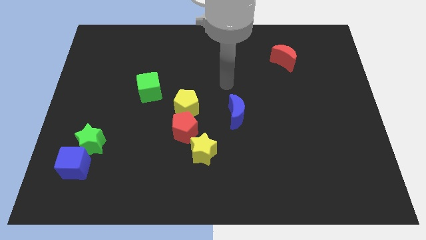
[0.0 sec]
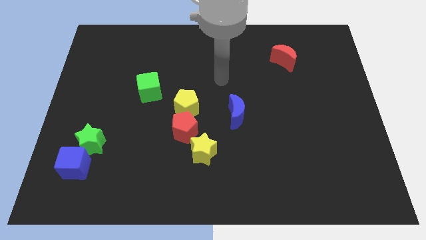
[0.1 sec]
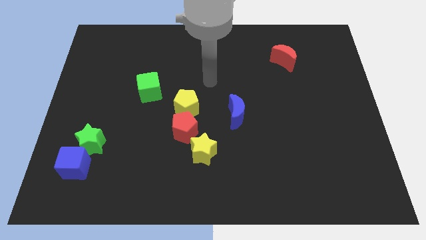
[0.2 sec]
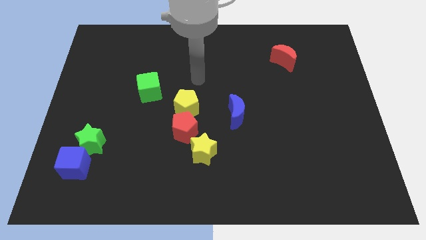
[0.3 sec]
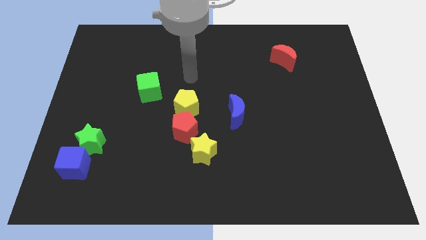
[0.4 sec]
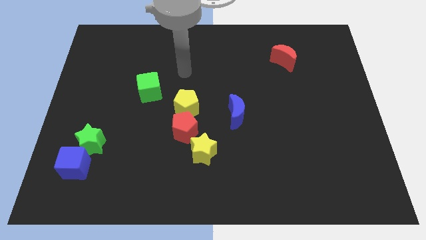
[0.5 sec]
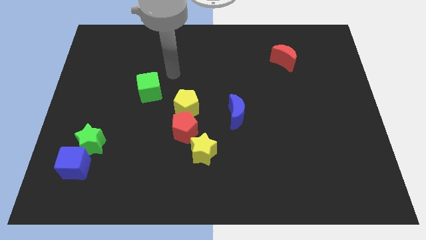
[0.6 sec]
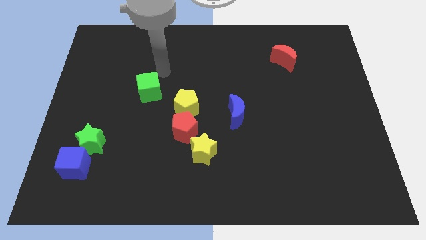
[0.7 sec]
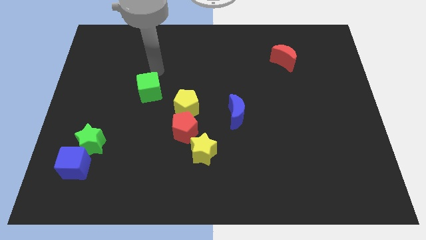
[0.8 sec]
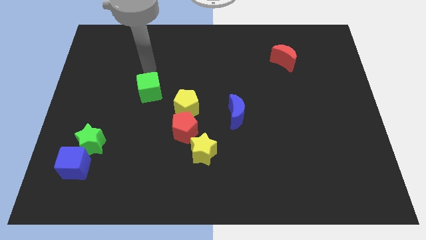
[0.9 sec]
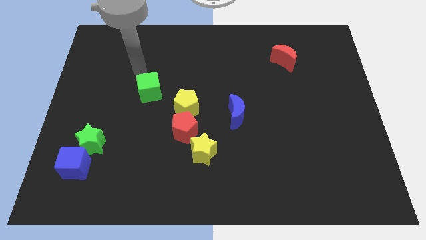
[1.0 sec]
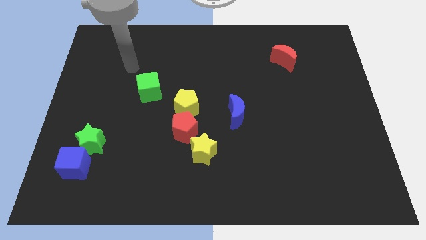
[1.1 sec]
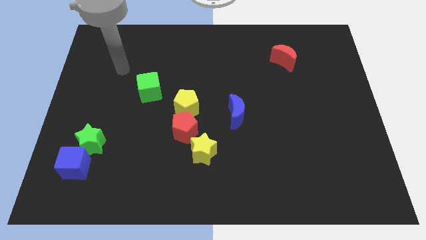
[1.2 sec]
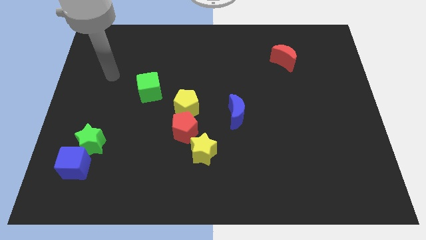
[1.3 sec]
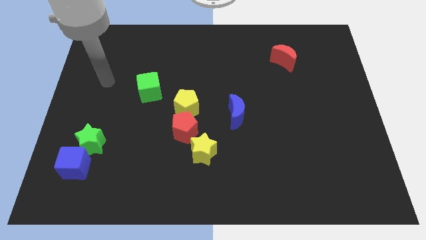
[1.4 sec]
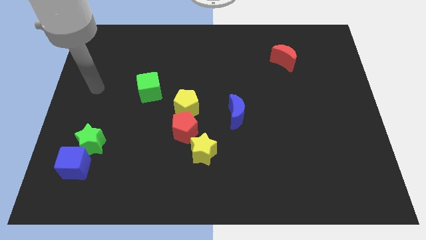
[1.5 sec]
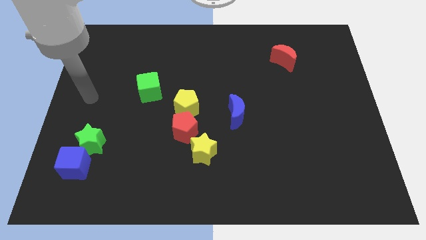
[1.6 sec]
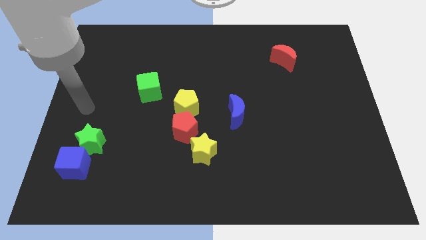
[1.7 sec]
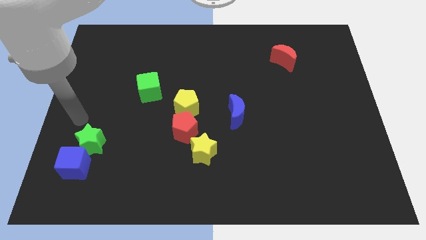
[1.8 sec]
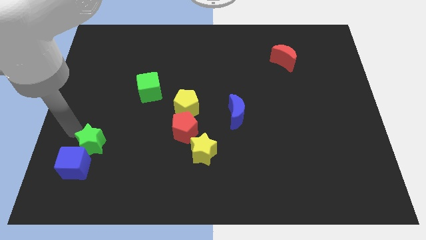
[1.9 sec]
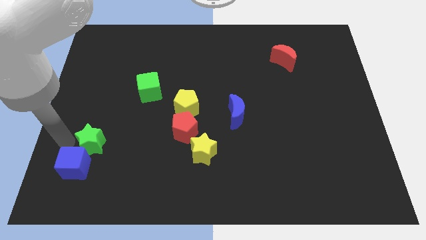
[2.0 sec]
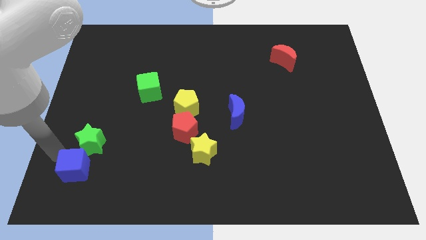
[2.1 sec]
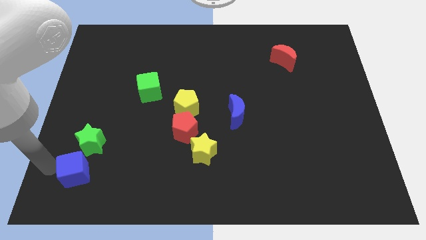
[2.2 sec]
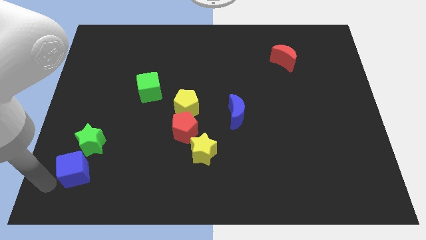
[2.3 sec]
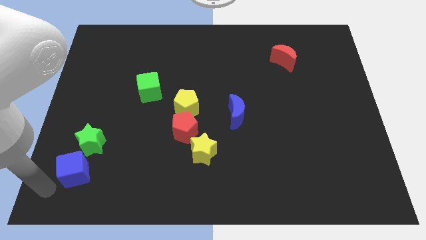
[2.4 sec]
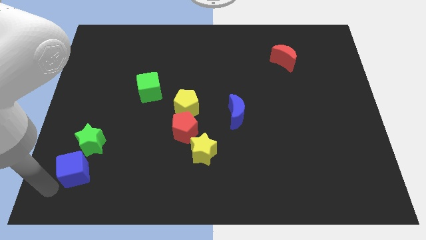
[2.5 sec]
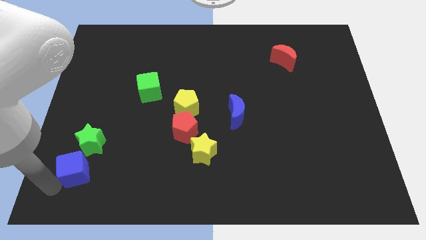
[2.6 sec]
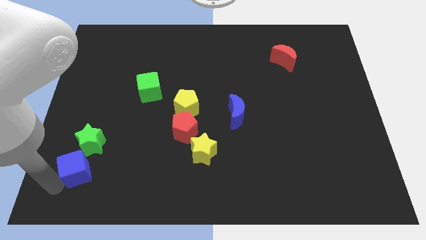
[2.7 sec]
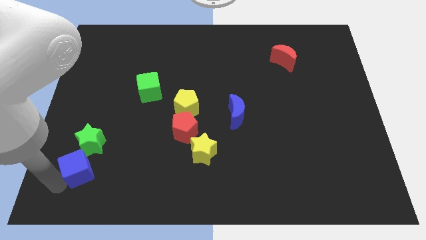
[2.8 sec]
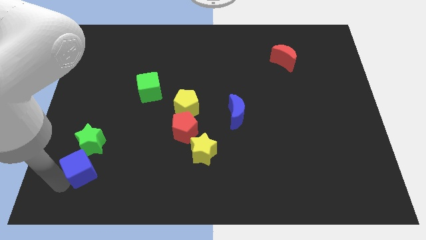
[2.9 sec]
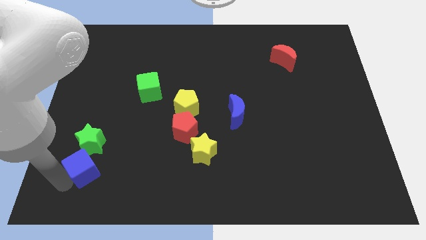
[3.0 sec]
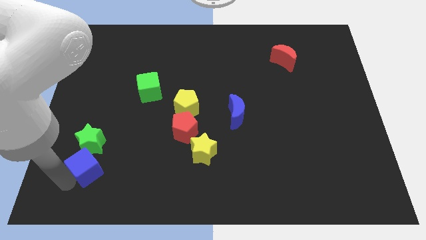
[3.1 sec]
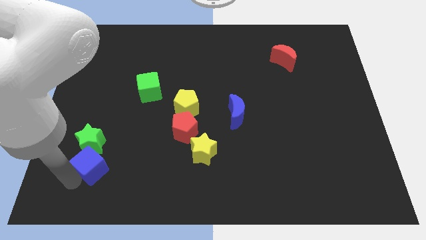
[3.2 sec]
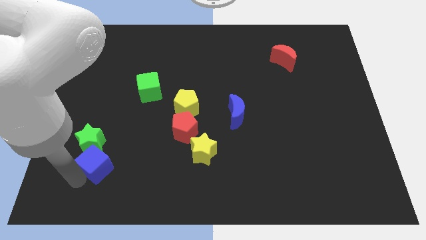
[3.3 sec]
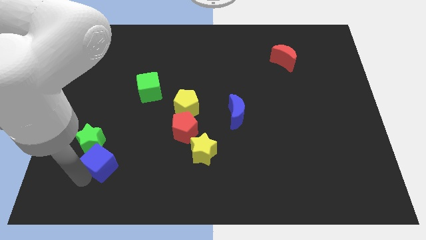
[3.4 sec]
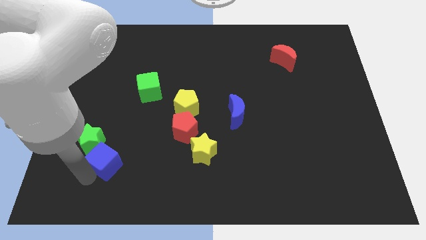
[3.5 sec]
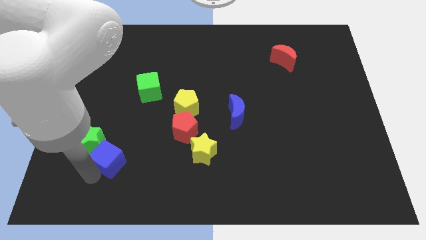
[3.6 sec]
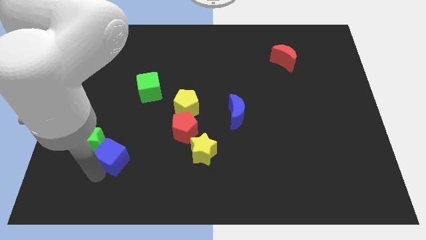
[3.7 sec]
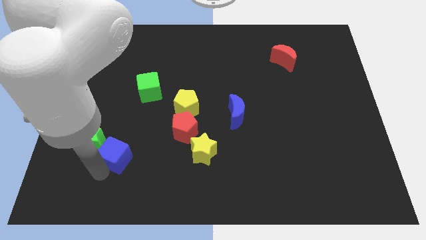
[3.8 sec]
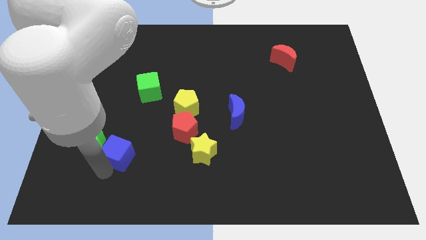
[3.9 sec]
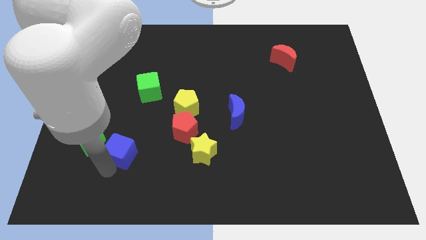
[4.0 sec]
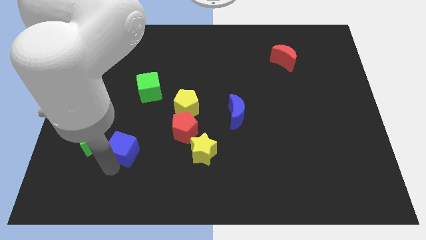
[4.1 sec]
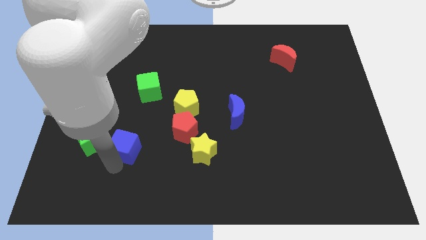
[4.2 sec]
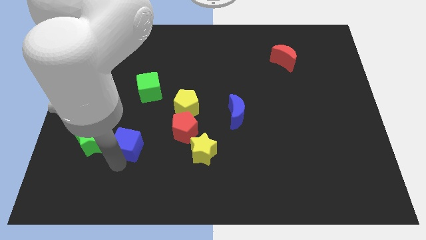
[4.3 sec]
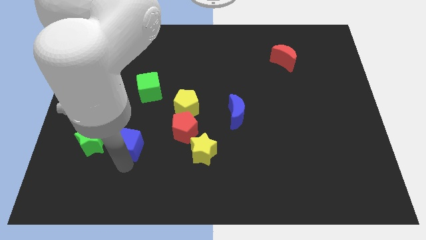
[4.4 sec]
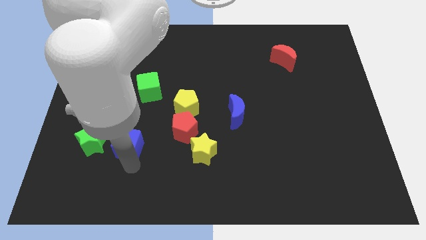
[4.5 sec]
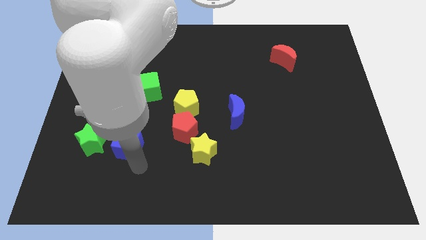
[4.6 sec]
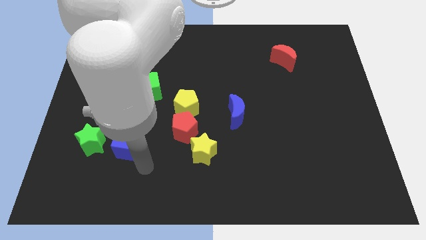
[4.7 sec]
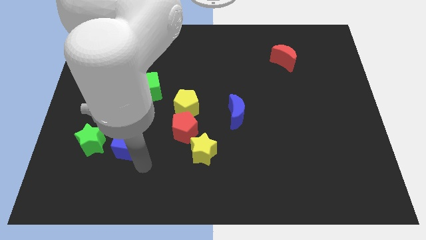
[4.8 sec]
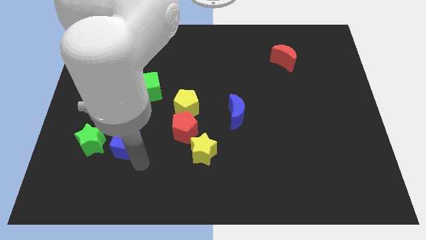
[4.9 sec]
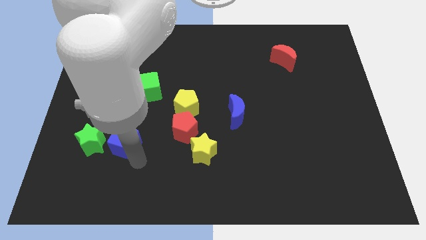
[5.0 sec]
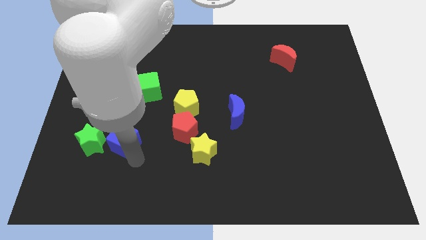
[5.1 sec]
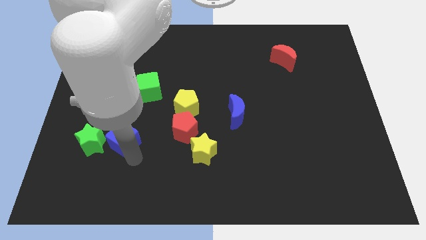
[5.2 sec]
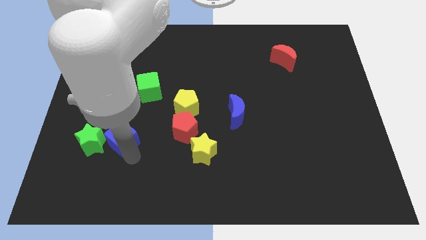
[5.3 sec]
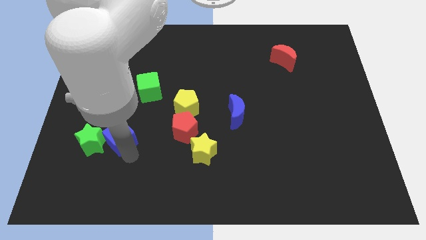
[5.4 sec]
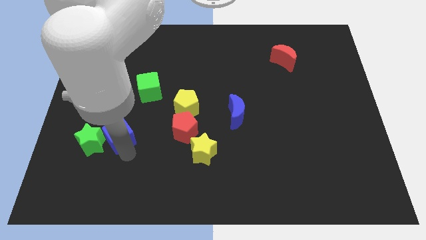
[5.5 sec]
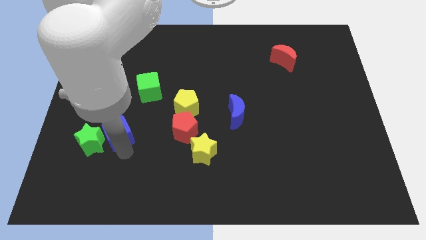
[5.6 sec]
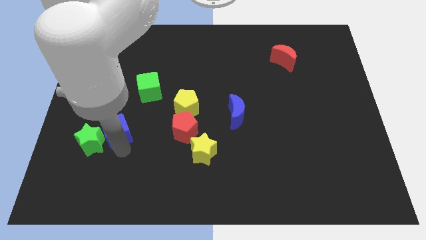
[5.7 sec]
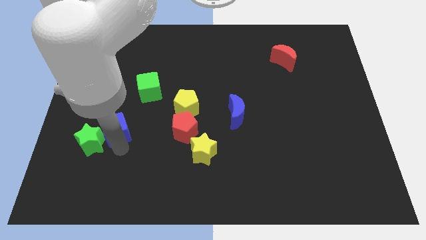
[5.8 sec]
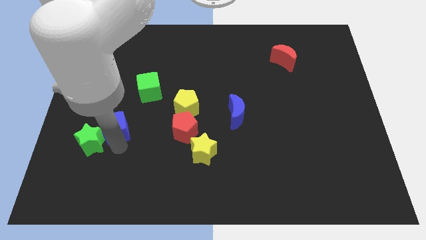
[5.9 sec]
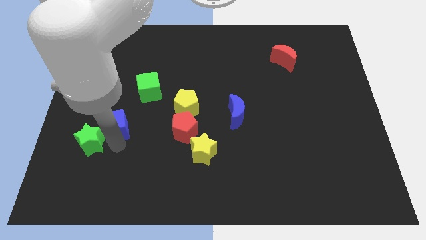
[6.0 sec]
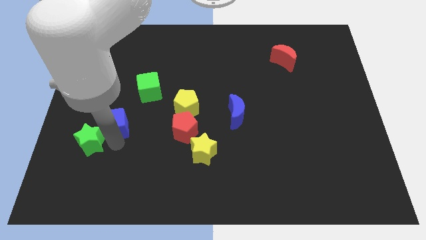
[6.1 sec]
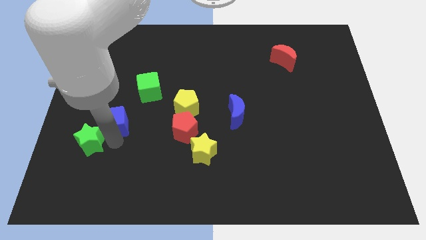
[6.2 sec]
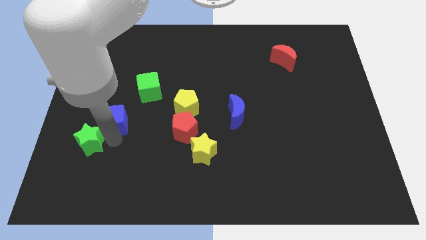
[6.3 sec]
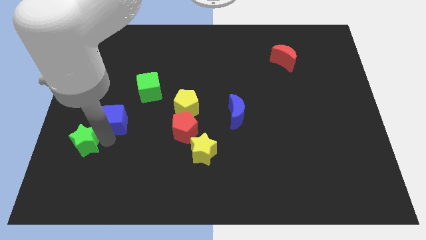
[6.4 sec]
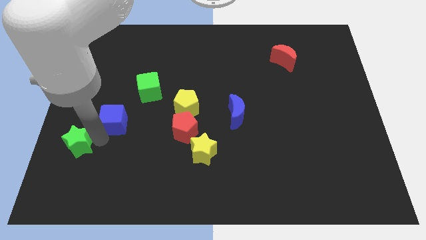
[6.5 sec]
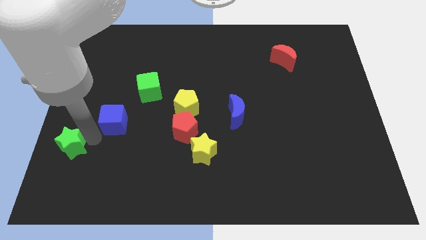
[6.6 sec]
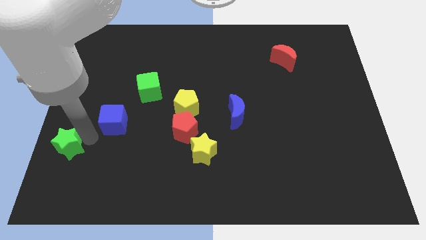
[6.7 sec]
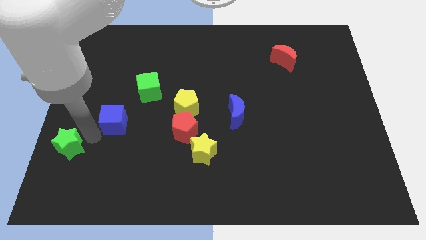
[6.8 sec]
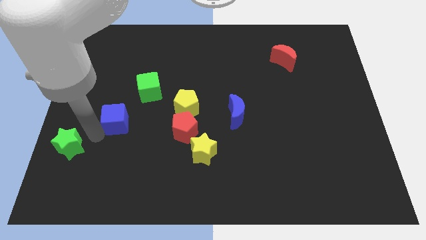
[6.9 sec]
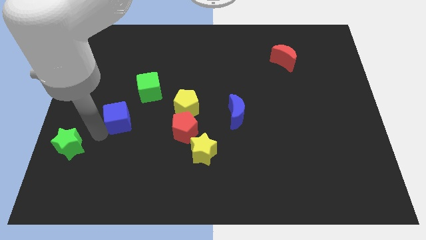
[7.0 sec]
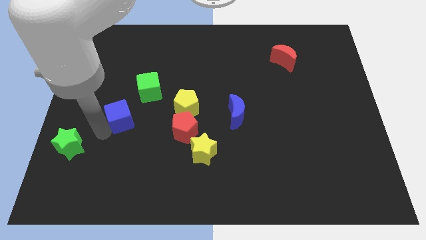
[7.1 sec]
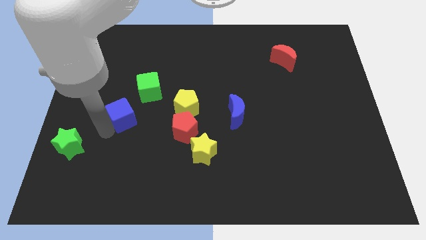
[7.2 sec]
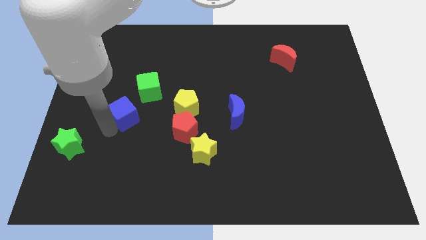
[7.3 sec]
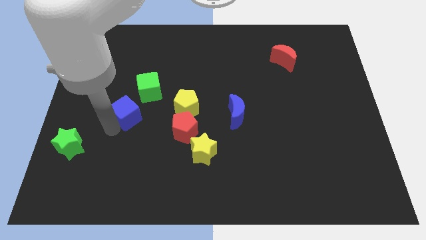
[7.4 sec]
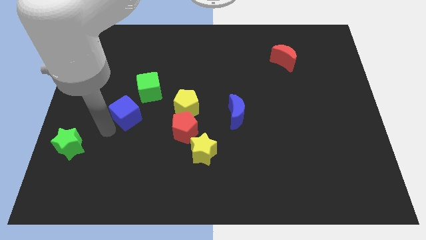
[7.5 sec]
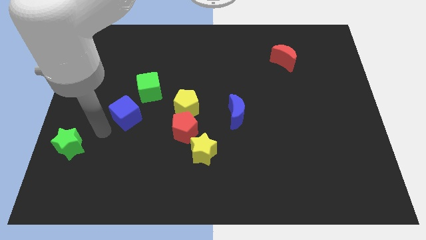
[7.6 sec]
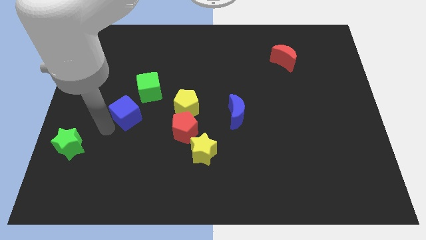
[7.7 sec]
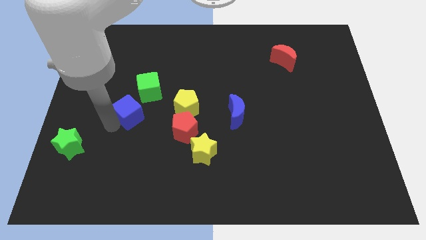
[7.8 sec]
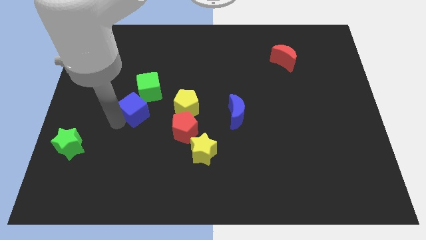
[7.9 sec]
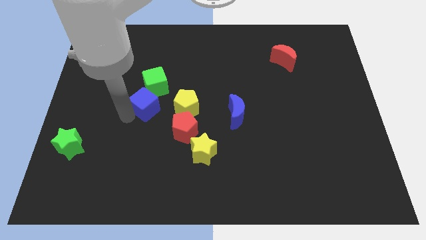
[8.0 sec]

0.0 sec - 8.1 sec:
push the blue cube upwards and to the right
